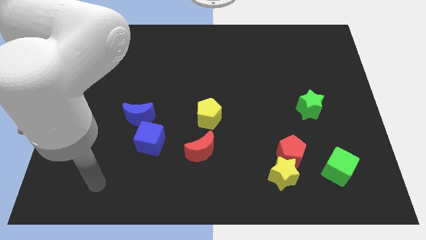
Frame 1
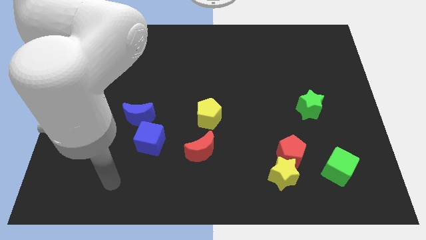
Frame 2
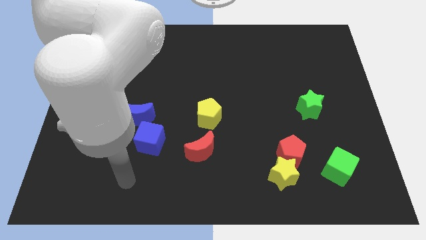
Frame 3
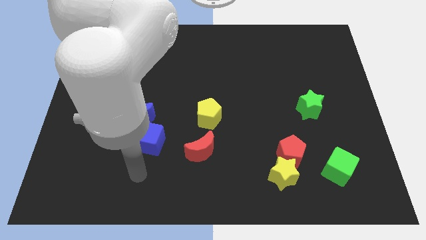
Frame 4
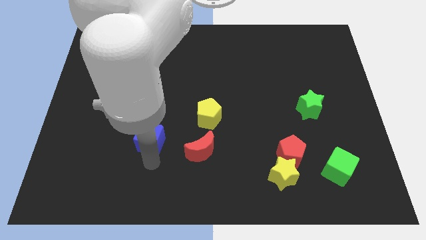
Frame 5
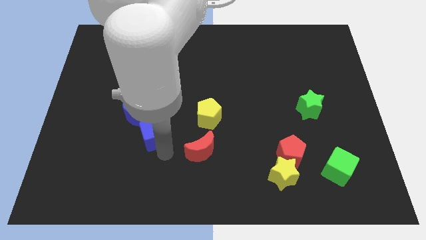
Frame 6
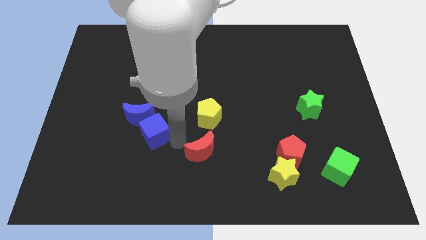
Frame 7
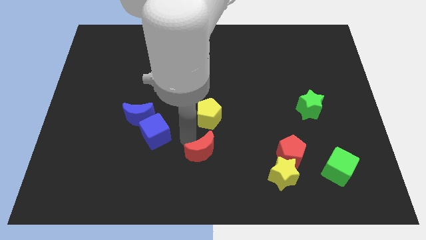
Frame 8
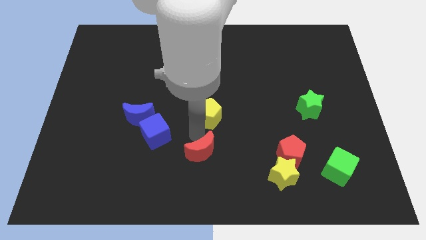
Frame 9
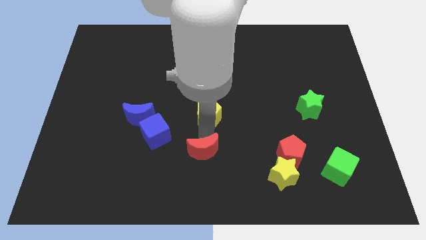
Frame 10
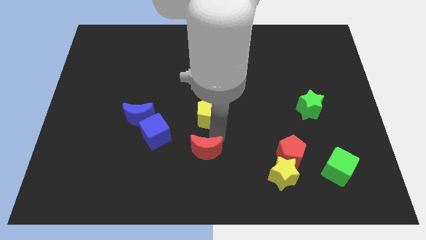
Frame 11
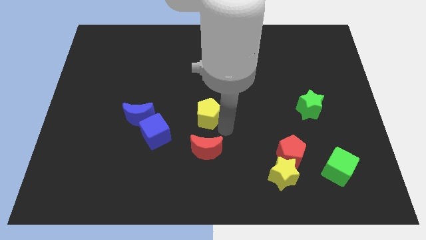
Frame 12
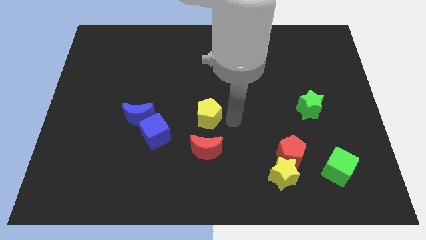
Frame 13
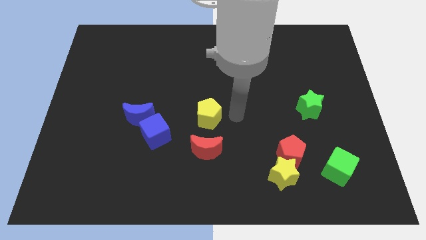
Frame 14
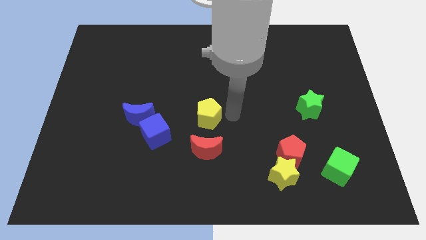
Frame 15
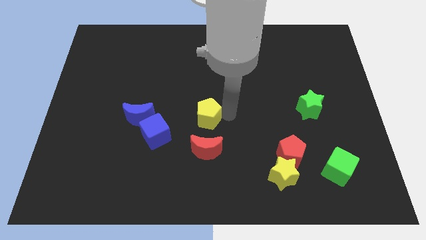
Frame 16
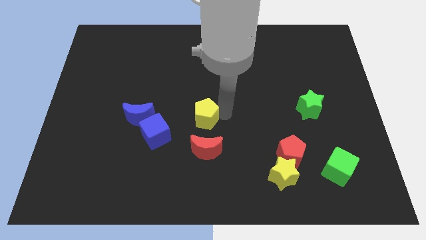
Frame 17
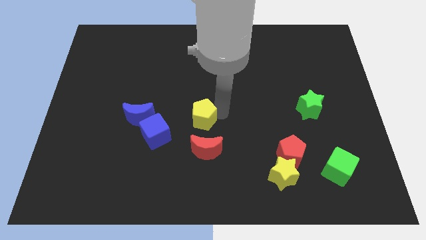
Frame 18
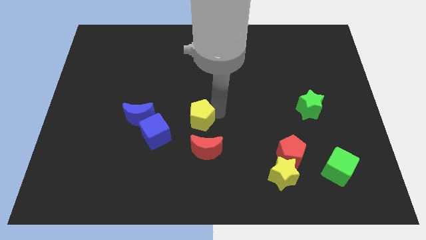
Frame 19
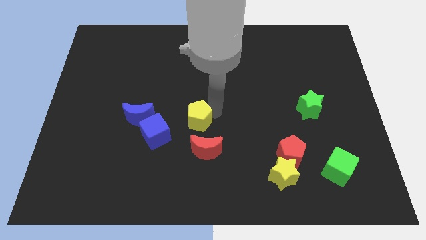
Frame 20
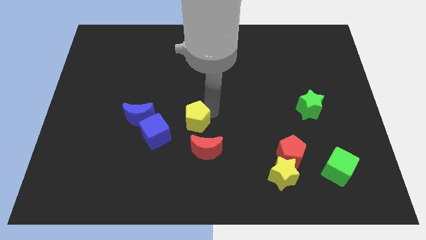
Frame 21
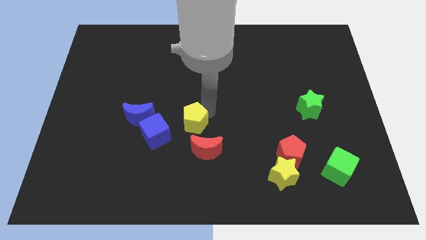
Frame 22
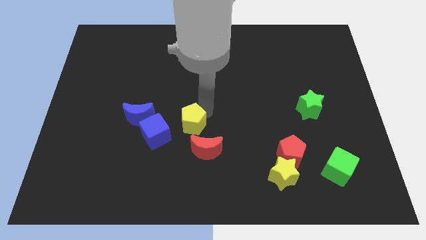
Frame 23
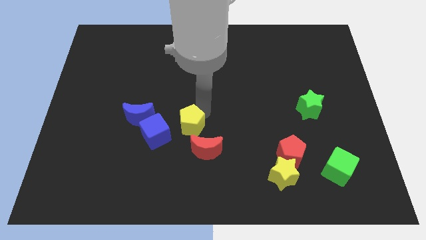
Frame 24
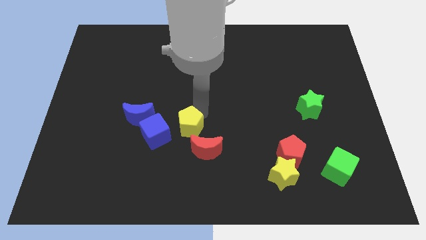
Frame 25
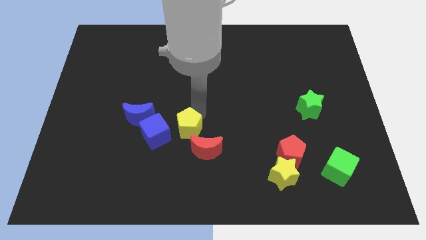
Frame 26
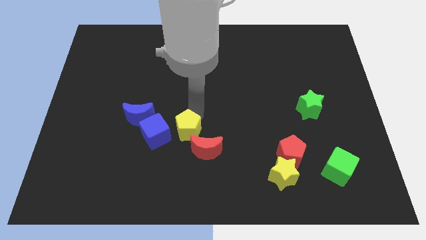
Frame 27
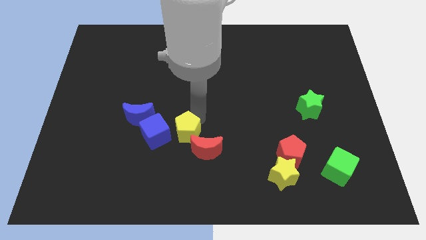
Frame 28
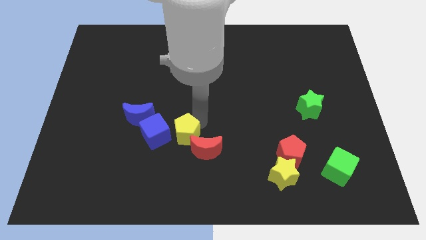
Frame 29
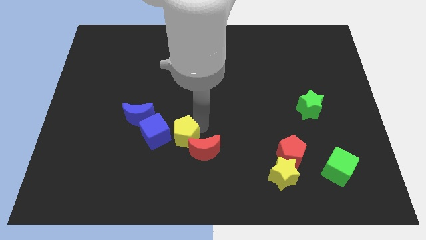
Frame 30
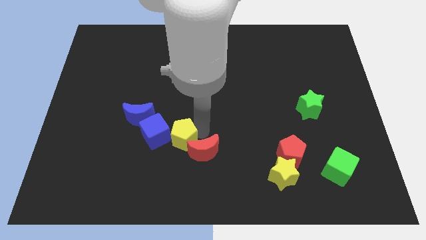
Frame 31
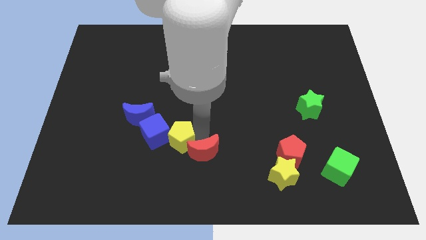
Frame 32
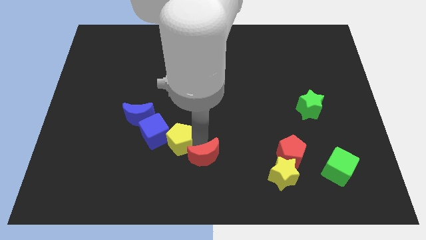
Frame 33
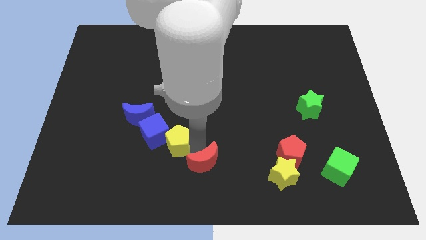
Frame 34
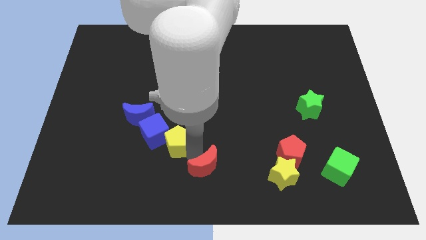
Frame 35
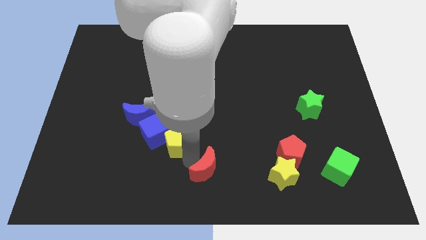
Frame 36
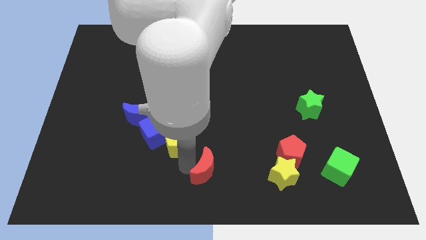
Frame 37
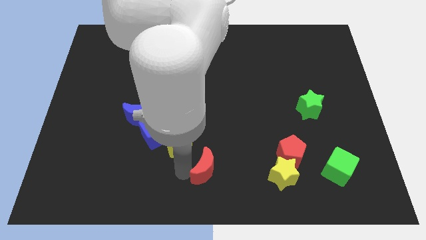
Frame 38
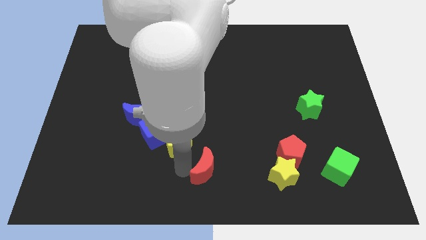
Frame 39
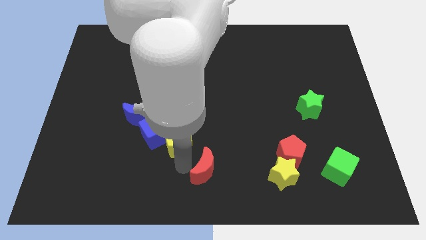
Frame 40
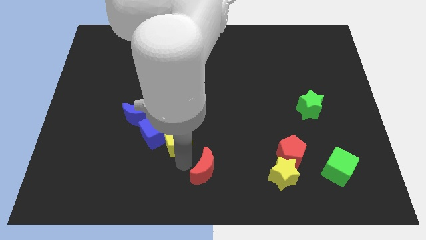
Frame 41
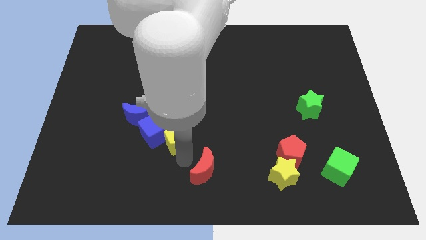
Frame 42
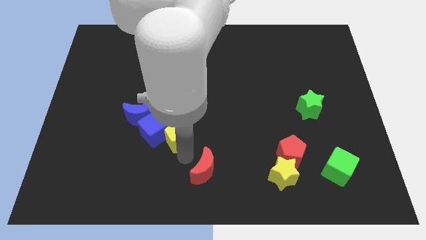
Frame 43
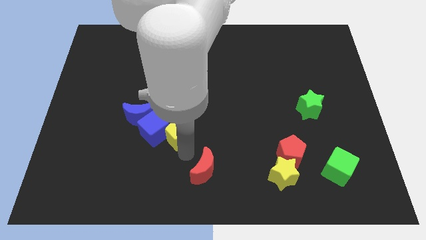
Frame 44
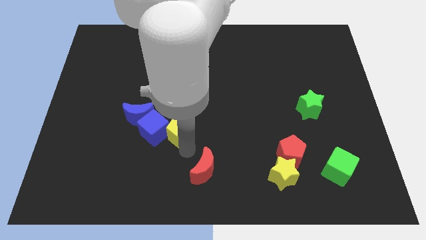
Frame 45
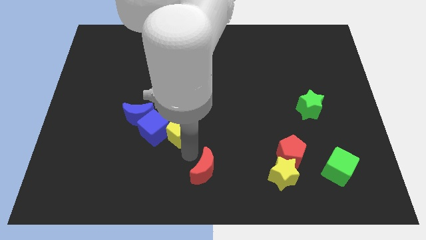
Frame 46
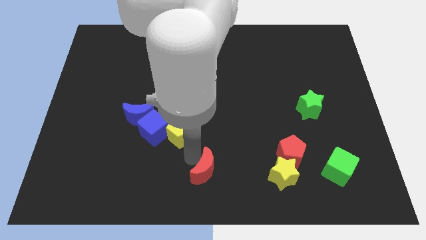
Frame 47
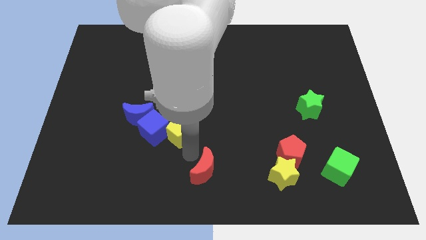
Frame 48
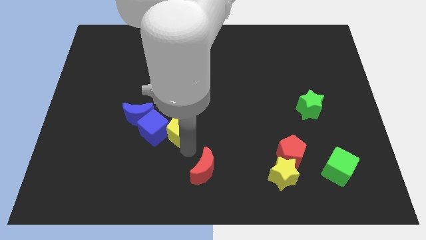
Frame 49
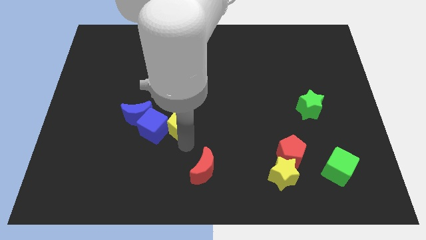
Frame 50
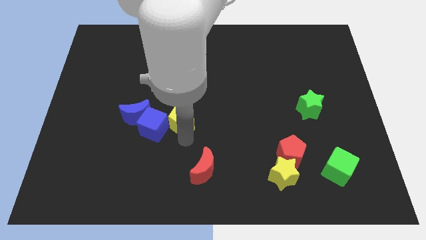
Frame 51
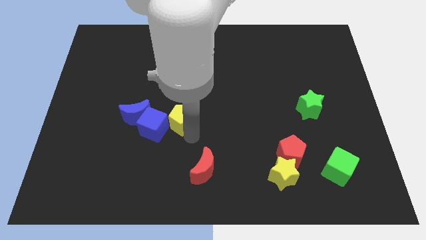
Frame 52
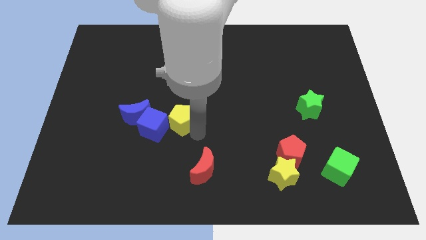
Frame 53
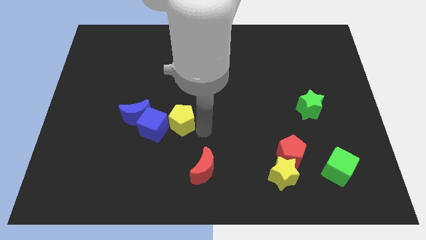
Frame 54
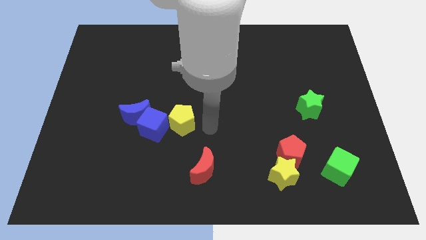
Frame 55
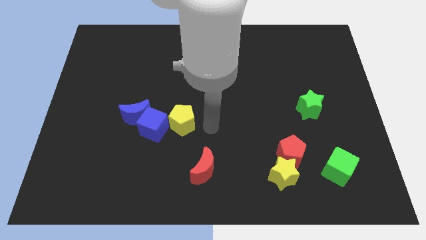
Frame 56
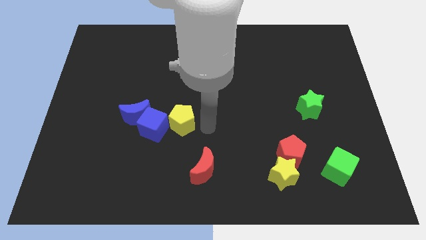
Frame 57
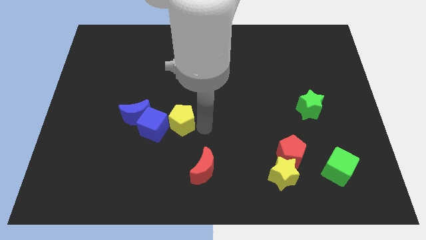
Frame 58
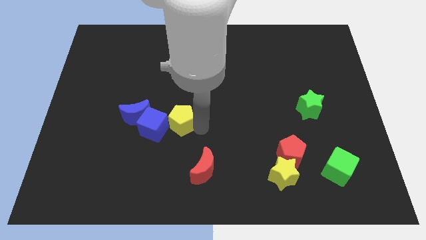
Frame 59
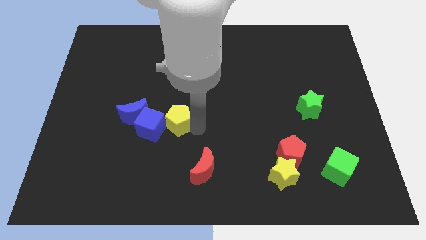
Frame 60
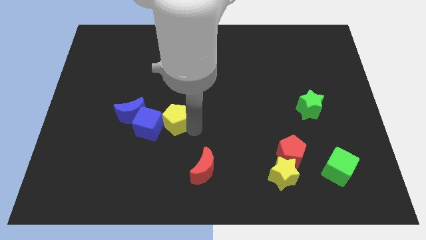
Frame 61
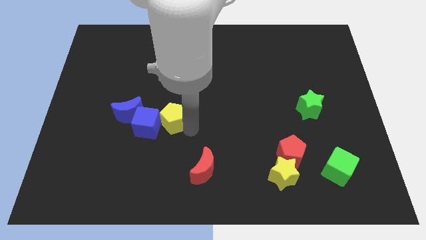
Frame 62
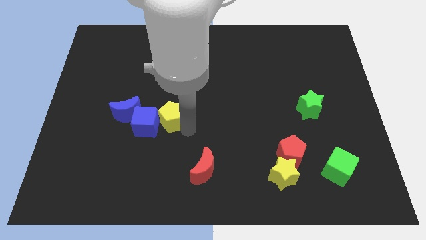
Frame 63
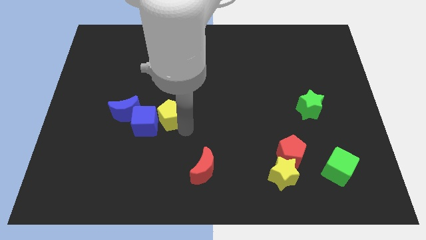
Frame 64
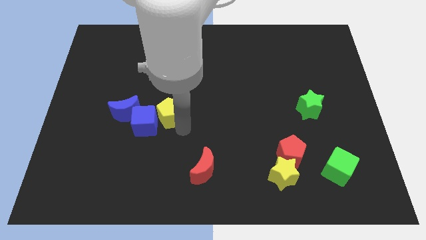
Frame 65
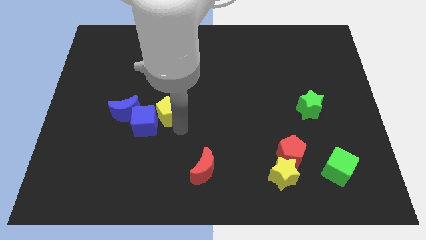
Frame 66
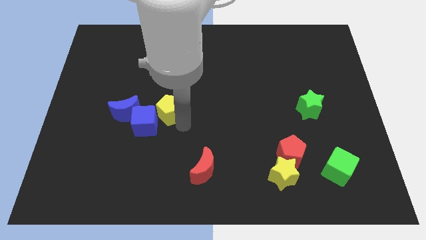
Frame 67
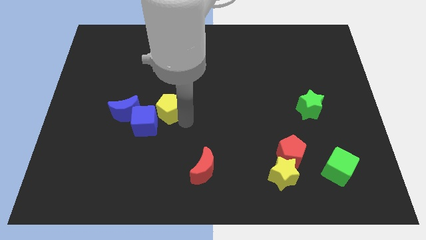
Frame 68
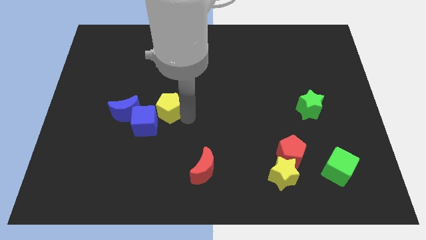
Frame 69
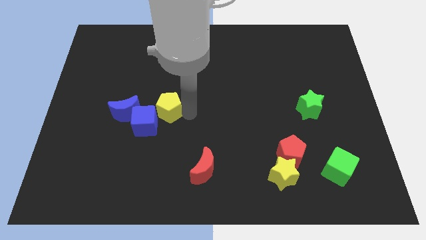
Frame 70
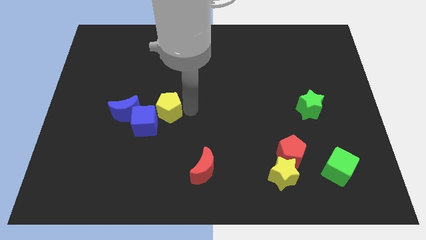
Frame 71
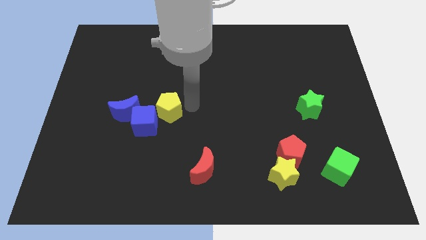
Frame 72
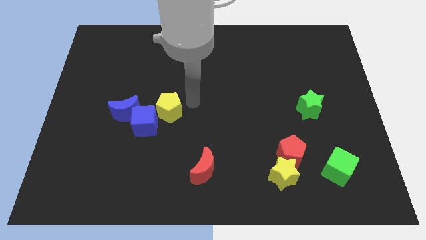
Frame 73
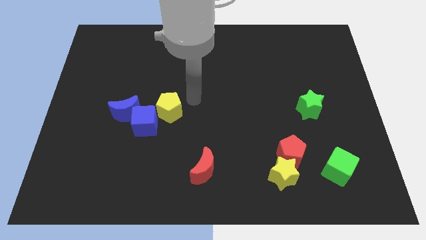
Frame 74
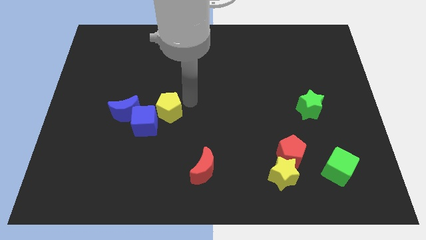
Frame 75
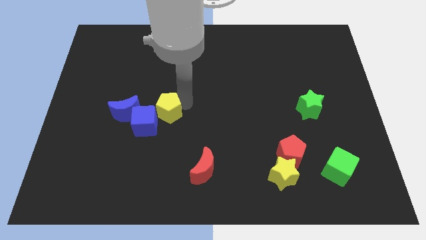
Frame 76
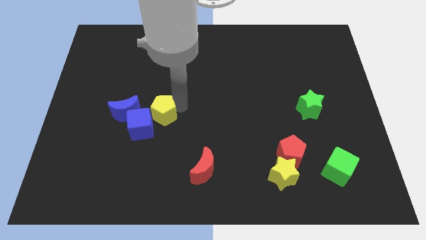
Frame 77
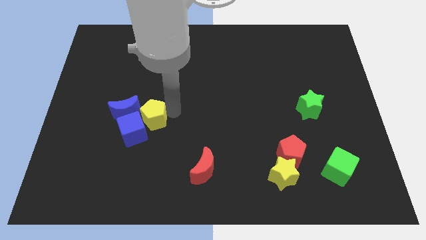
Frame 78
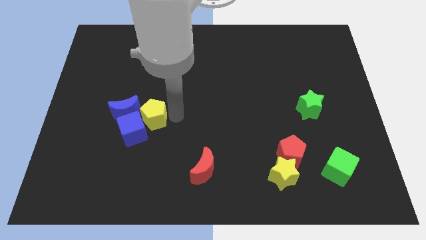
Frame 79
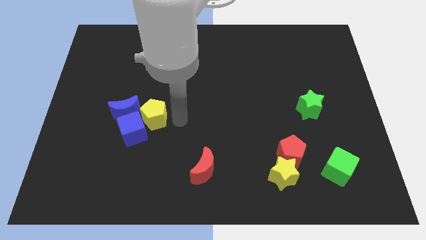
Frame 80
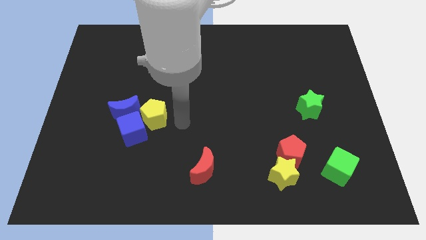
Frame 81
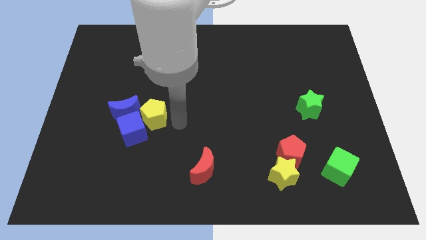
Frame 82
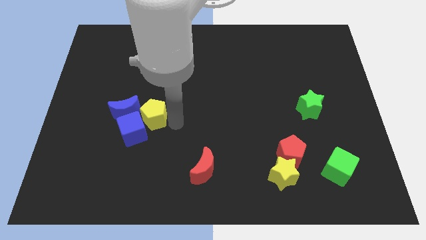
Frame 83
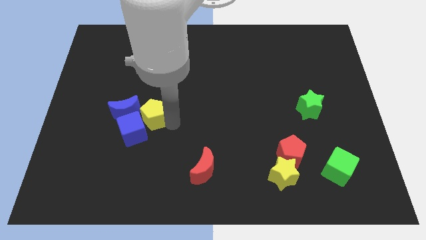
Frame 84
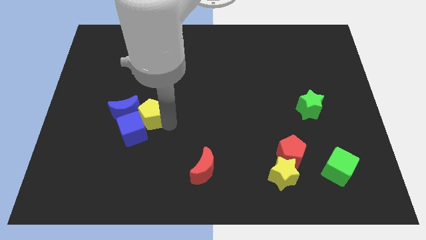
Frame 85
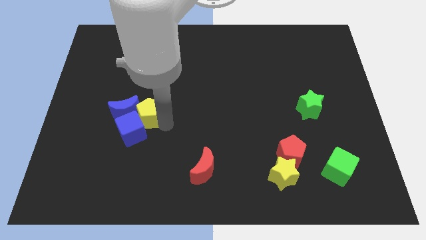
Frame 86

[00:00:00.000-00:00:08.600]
push the yellow pentagon towards the blue moon
